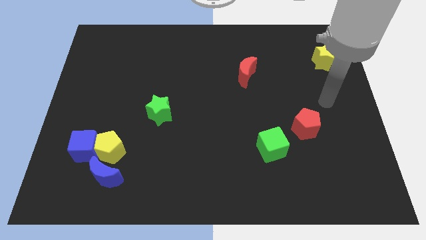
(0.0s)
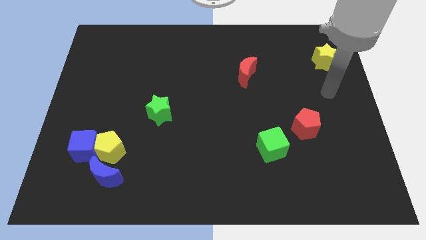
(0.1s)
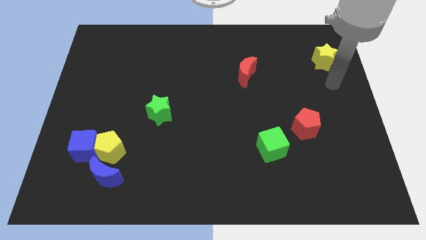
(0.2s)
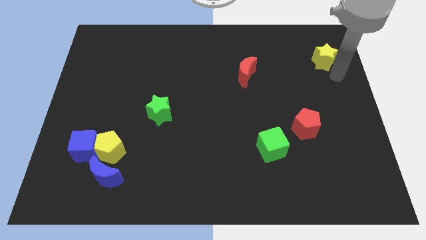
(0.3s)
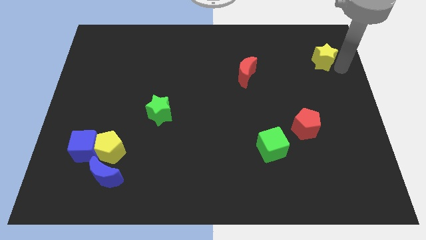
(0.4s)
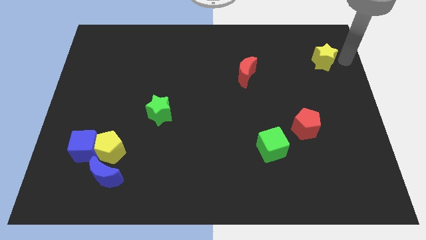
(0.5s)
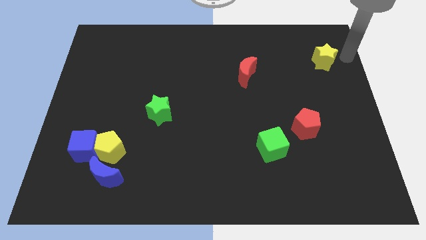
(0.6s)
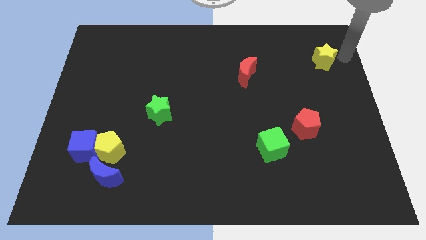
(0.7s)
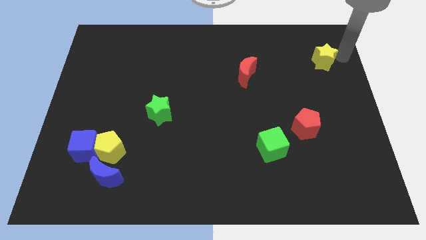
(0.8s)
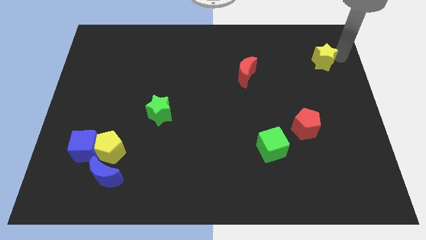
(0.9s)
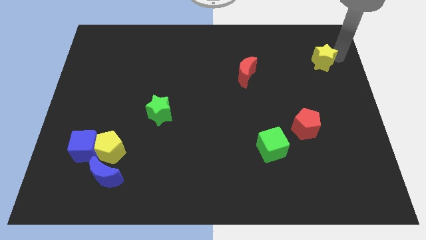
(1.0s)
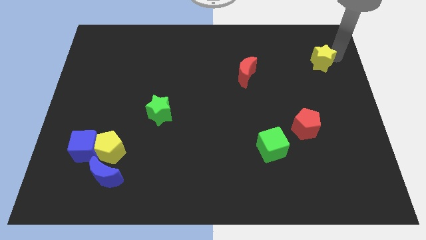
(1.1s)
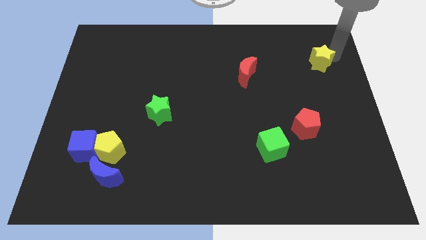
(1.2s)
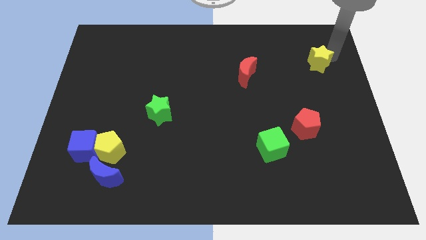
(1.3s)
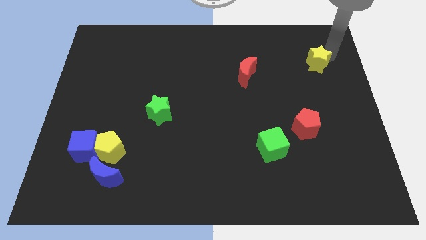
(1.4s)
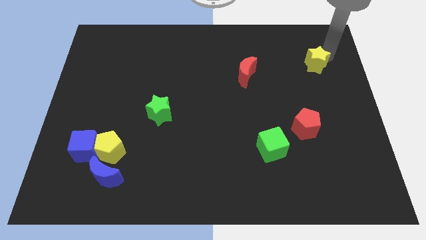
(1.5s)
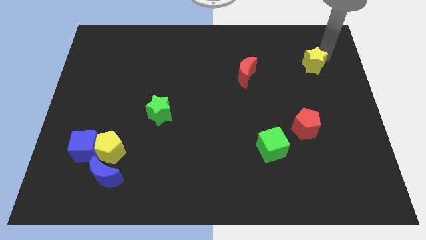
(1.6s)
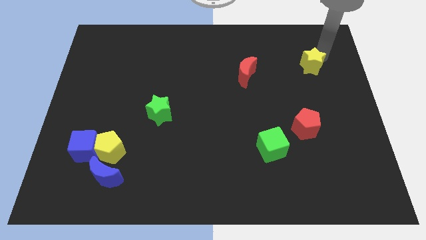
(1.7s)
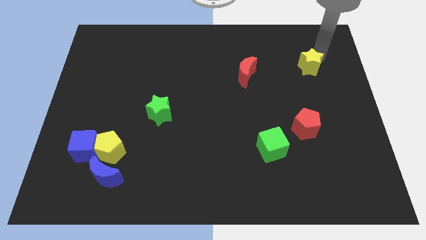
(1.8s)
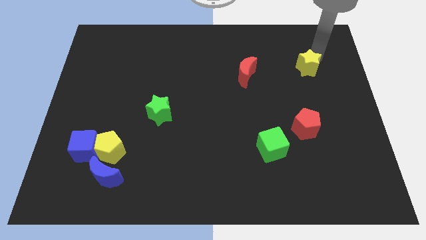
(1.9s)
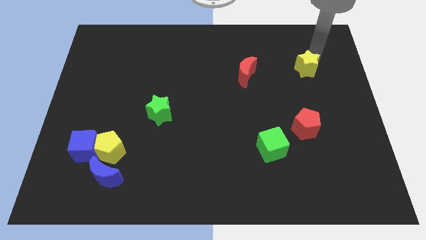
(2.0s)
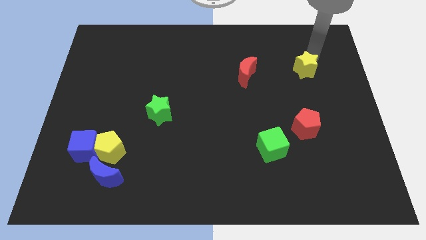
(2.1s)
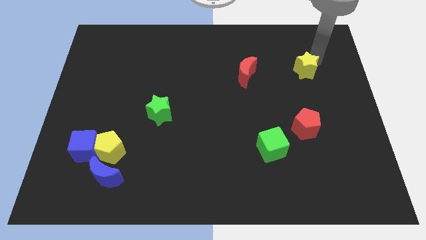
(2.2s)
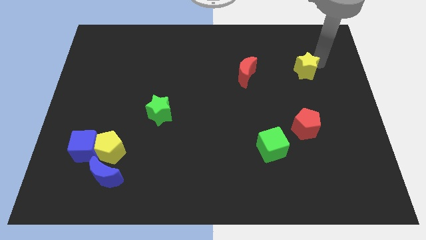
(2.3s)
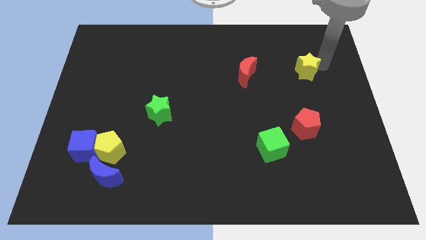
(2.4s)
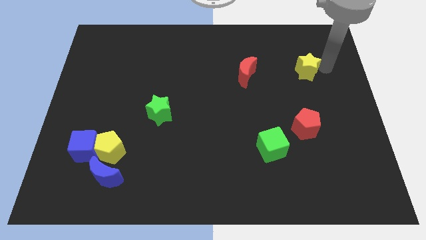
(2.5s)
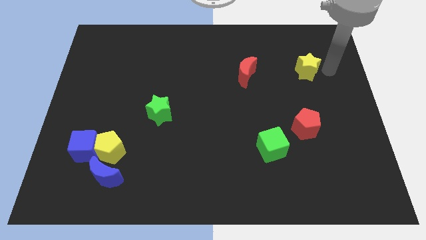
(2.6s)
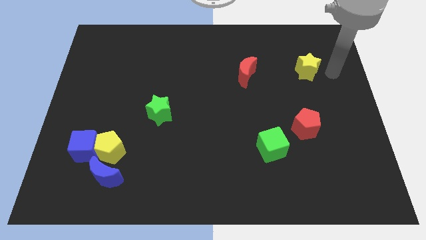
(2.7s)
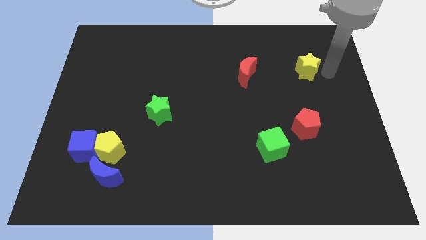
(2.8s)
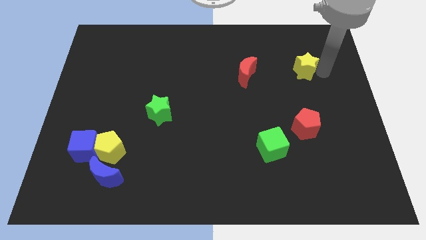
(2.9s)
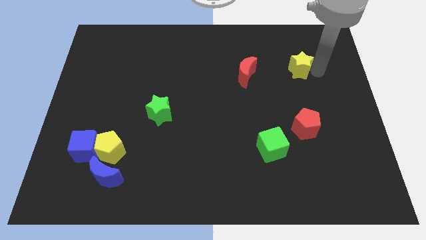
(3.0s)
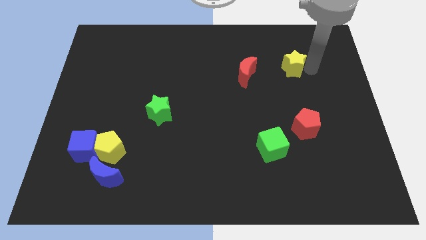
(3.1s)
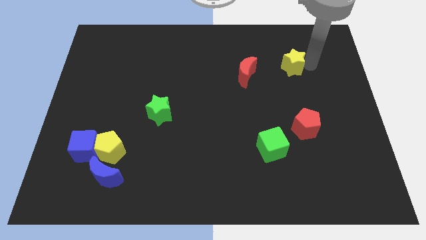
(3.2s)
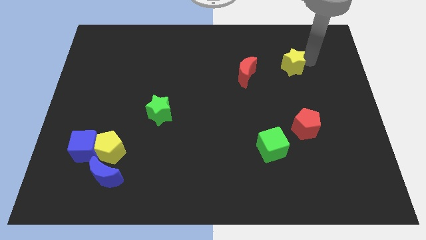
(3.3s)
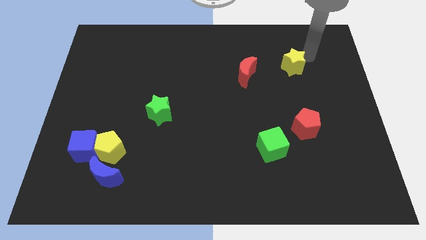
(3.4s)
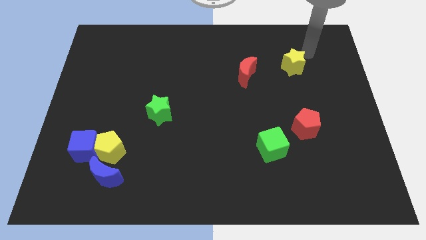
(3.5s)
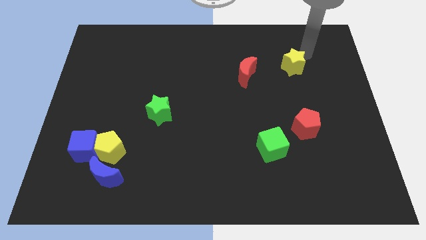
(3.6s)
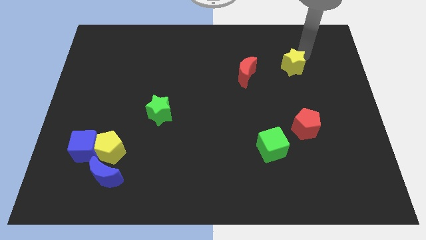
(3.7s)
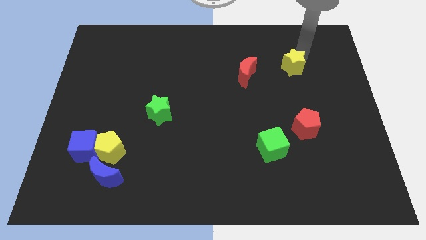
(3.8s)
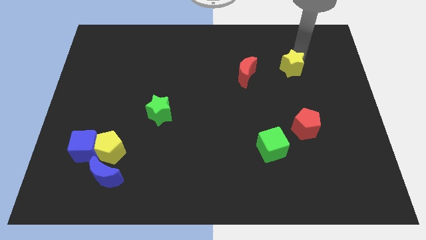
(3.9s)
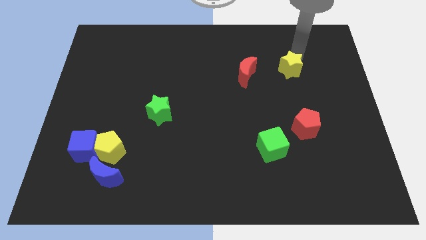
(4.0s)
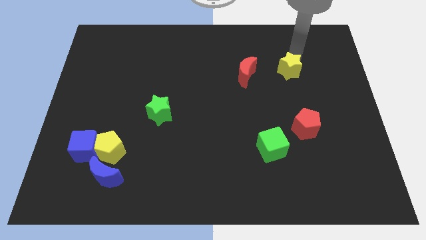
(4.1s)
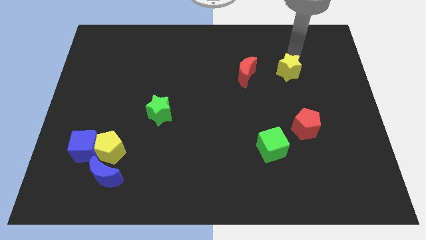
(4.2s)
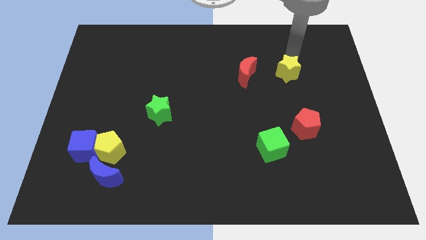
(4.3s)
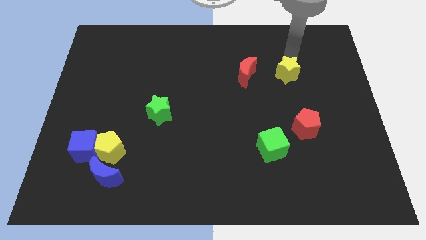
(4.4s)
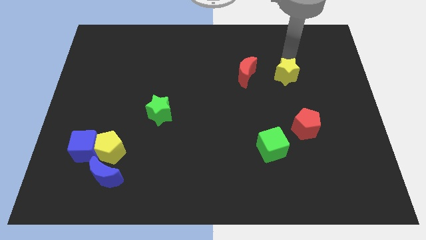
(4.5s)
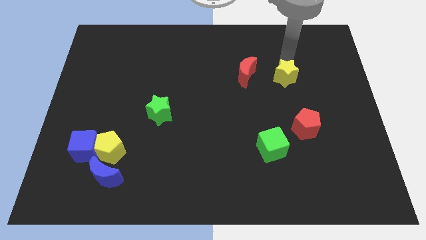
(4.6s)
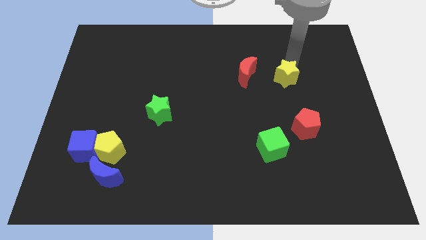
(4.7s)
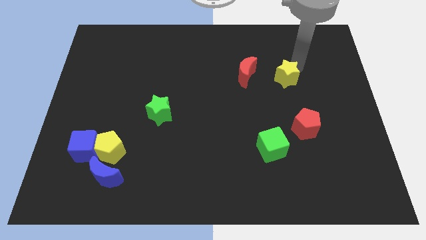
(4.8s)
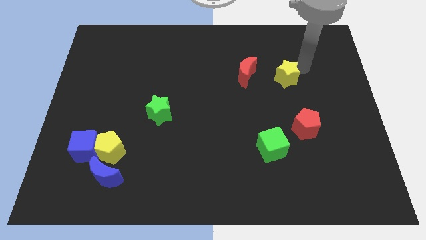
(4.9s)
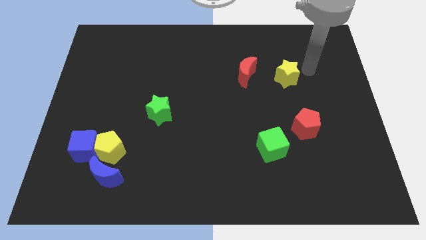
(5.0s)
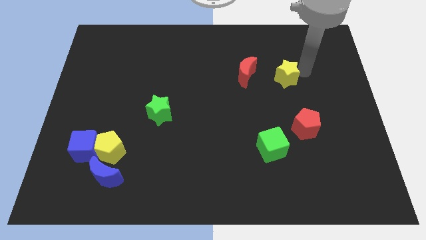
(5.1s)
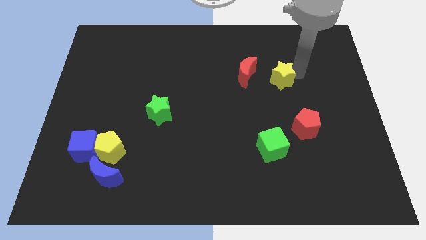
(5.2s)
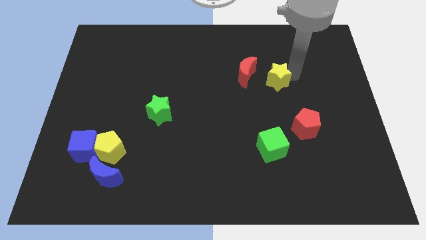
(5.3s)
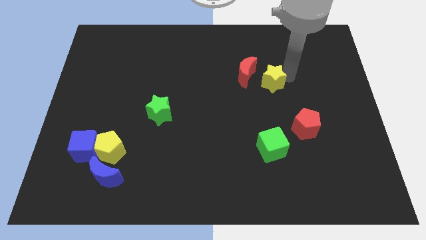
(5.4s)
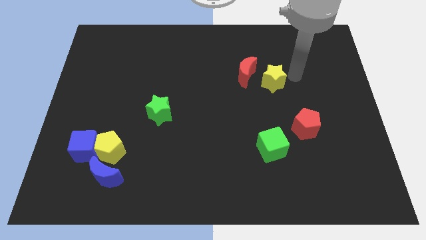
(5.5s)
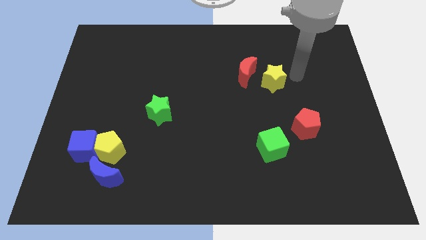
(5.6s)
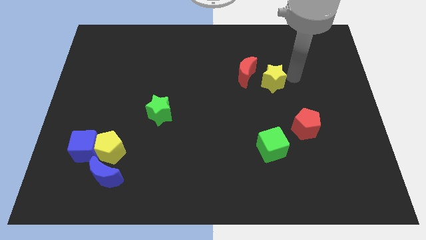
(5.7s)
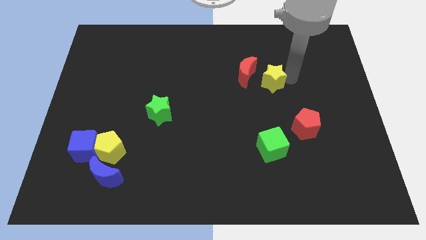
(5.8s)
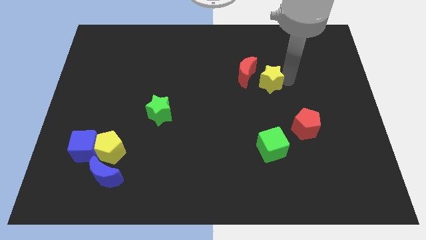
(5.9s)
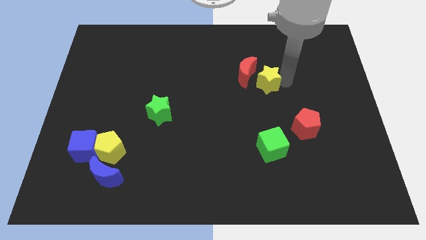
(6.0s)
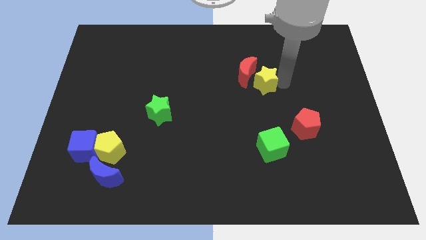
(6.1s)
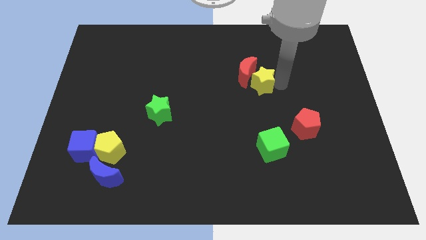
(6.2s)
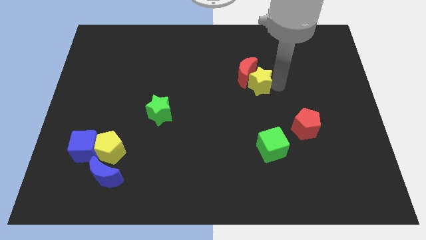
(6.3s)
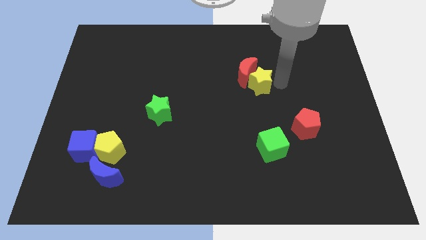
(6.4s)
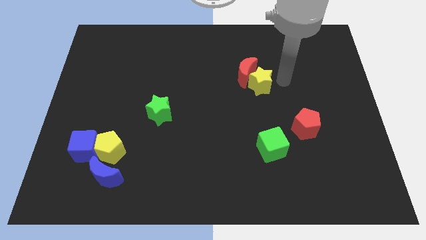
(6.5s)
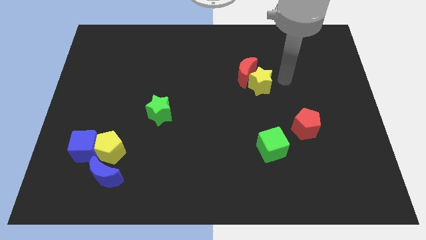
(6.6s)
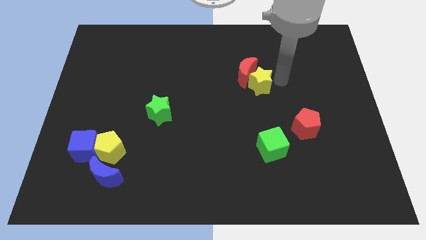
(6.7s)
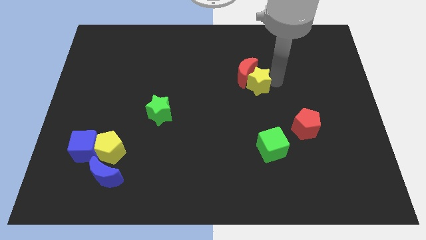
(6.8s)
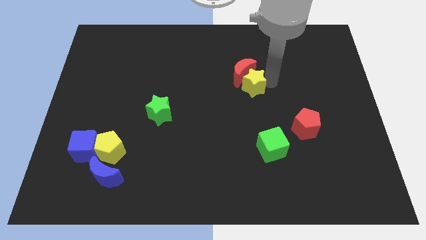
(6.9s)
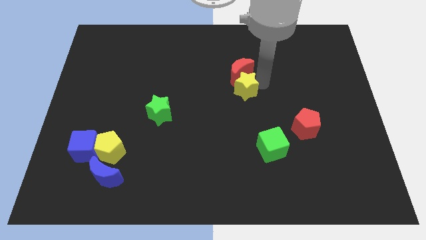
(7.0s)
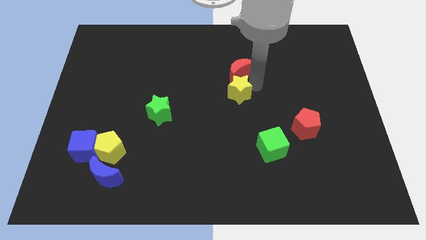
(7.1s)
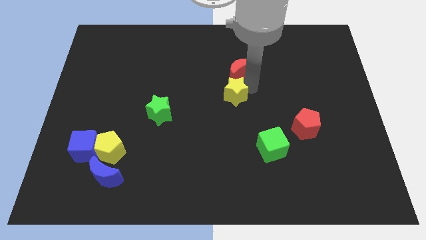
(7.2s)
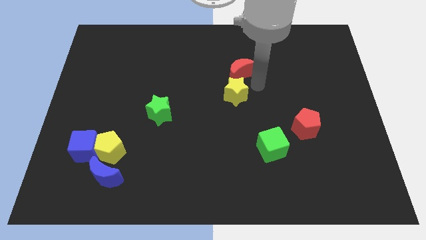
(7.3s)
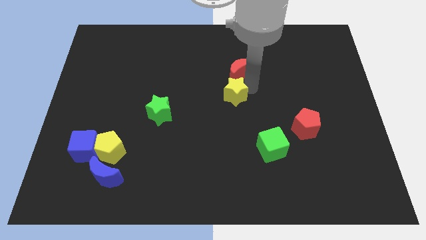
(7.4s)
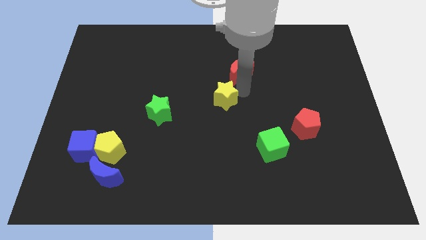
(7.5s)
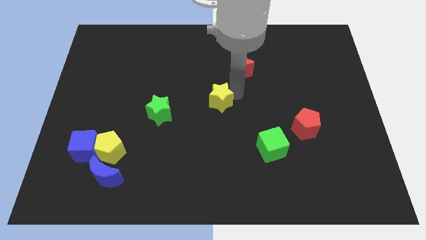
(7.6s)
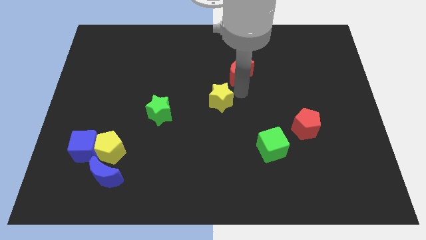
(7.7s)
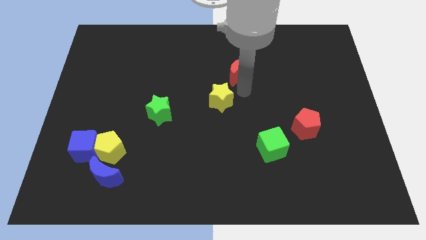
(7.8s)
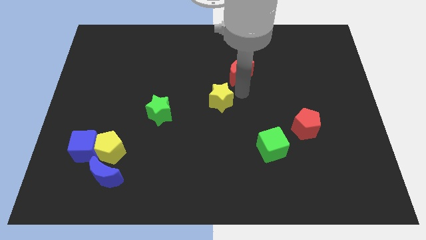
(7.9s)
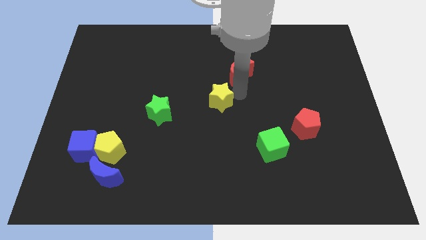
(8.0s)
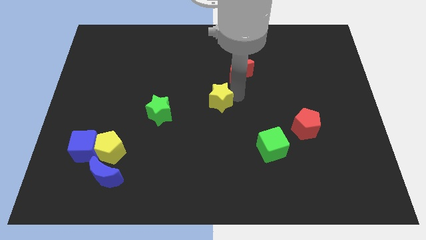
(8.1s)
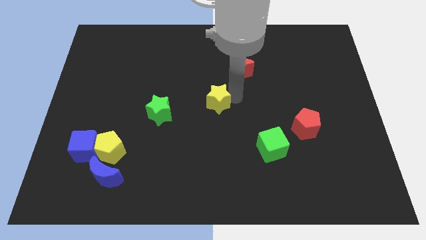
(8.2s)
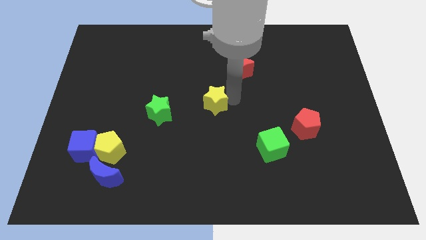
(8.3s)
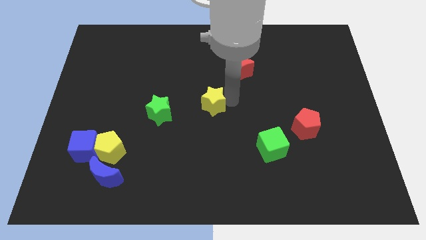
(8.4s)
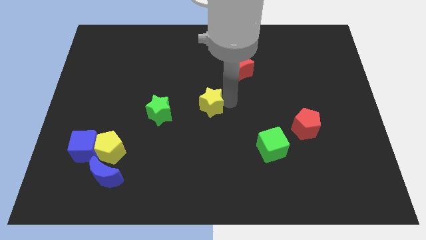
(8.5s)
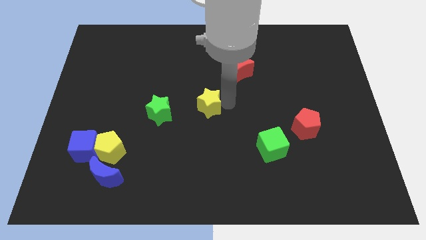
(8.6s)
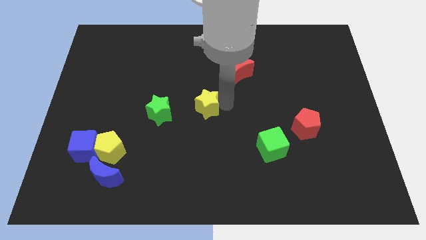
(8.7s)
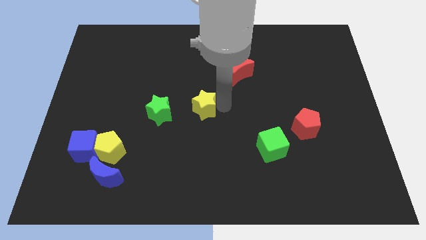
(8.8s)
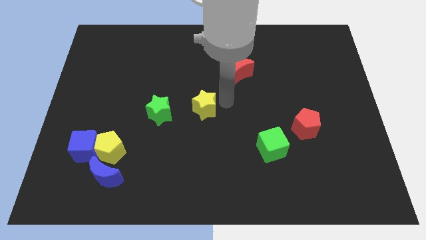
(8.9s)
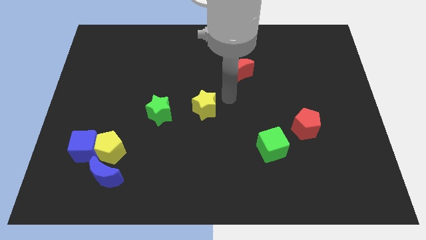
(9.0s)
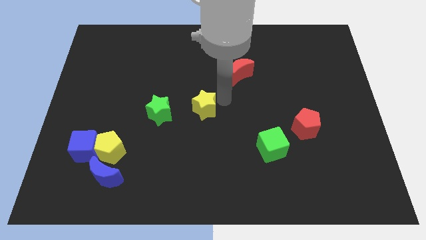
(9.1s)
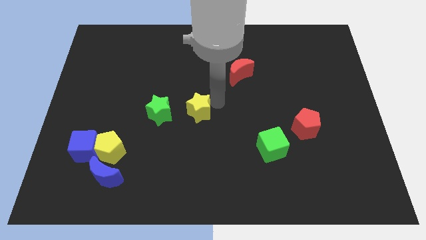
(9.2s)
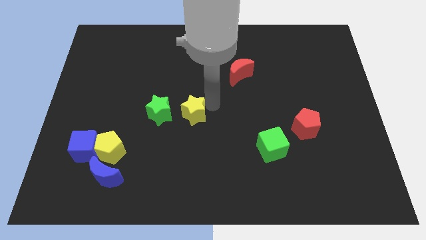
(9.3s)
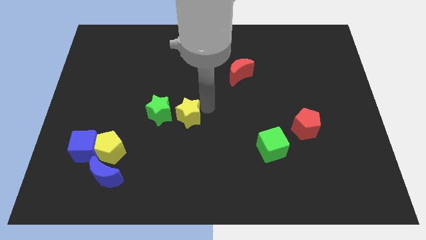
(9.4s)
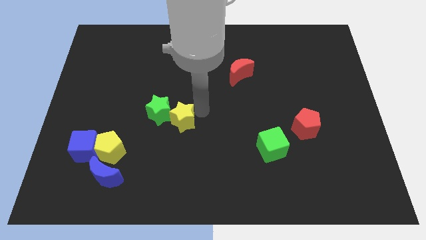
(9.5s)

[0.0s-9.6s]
push the yellow star close to the green star
